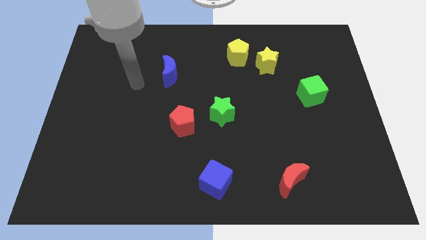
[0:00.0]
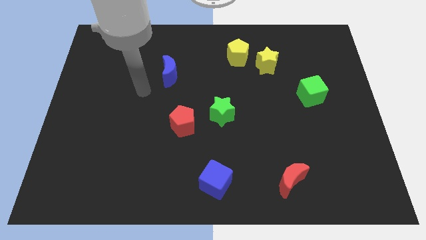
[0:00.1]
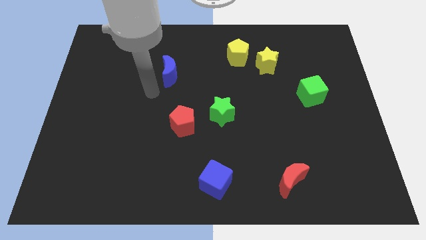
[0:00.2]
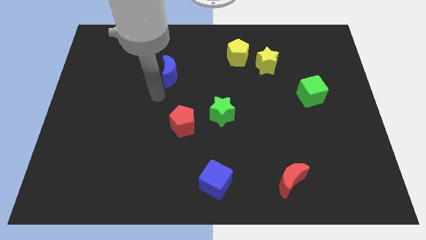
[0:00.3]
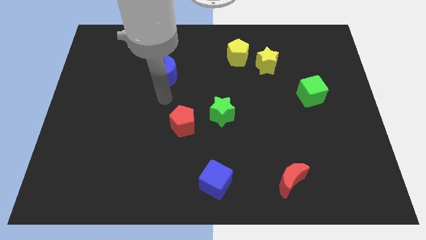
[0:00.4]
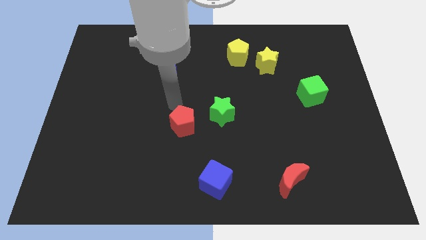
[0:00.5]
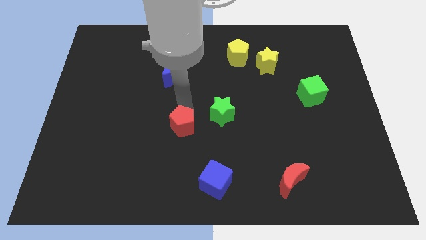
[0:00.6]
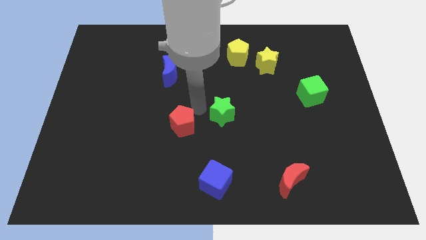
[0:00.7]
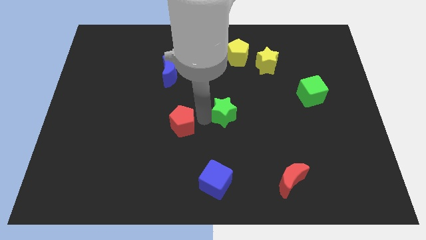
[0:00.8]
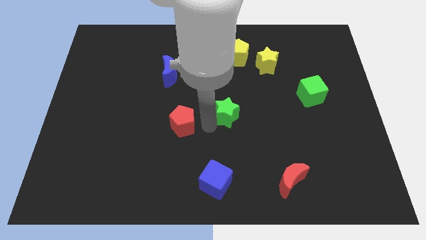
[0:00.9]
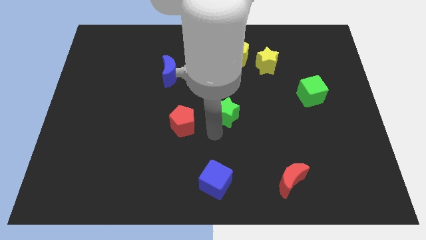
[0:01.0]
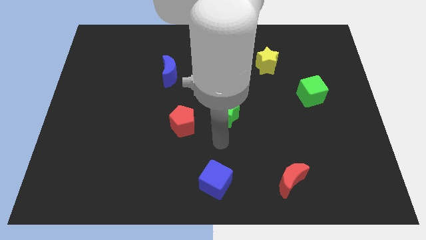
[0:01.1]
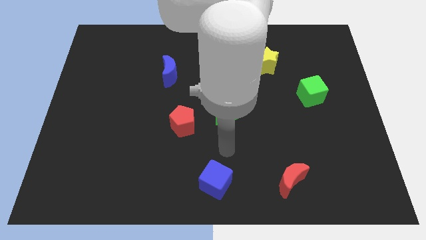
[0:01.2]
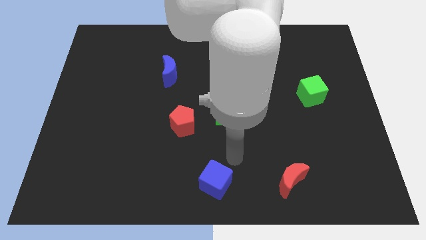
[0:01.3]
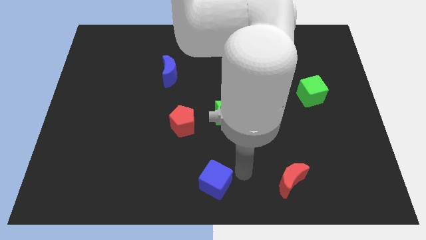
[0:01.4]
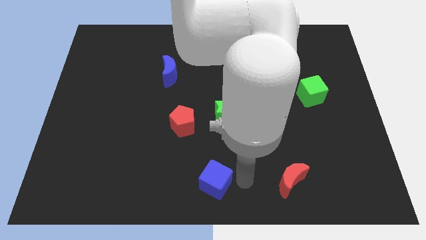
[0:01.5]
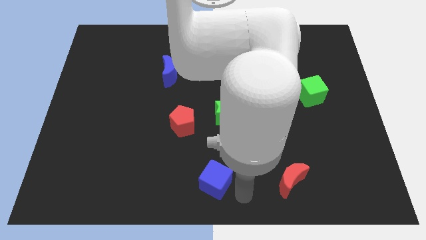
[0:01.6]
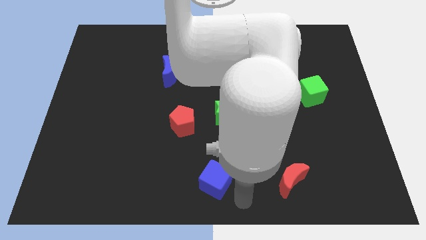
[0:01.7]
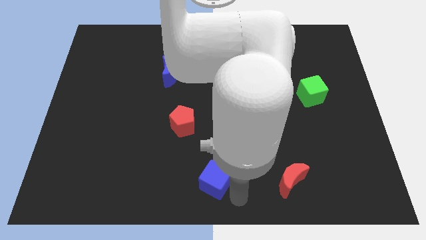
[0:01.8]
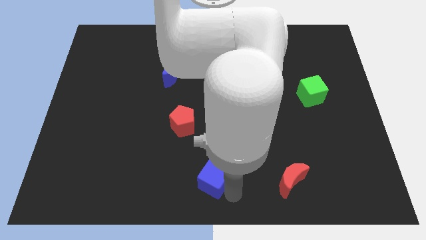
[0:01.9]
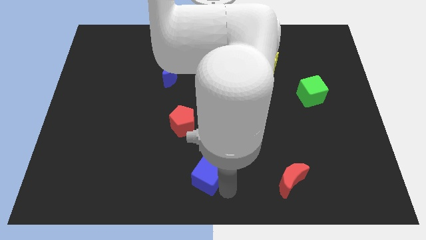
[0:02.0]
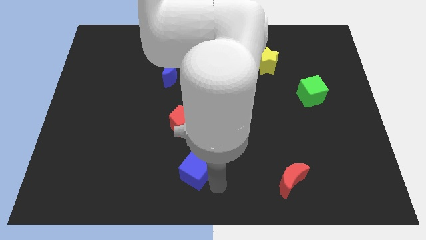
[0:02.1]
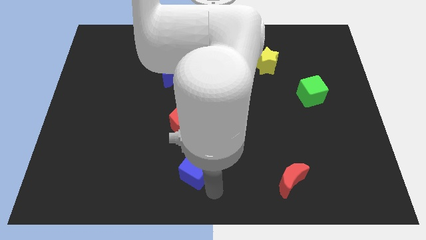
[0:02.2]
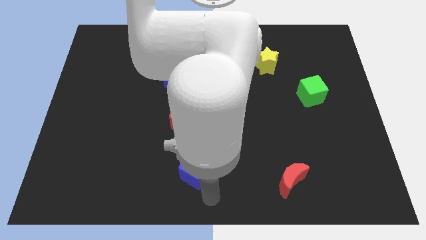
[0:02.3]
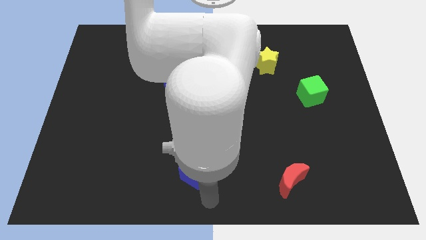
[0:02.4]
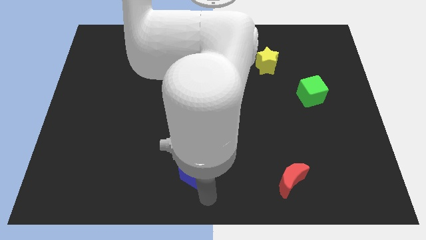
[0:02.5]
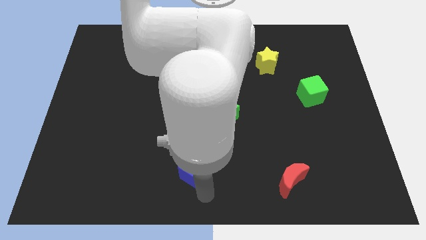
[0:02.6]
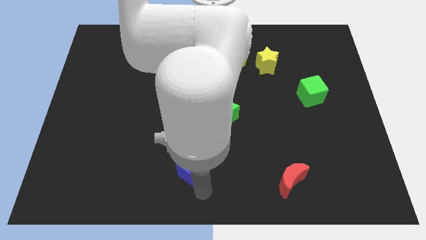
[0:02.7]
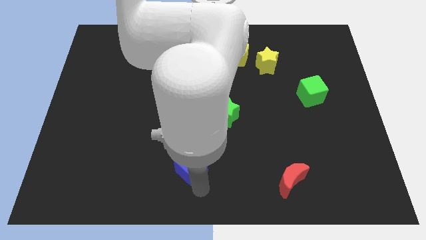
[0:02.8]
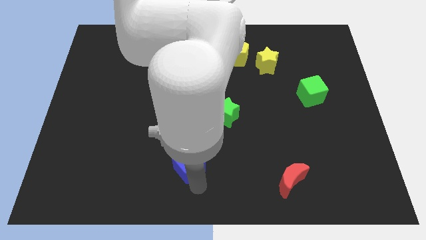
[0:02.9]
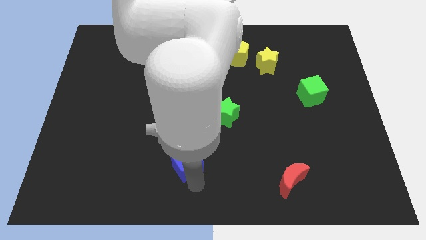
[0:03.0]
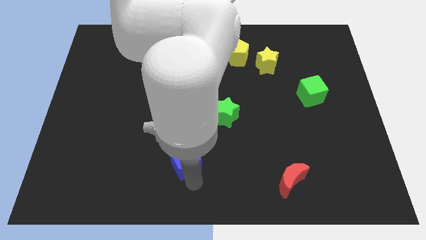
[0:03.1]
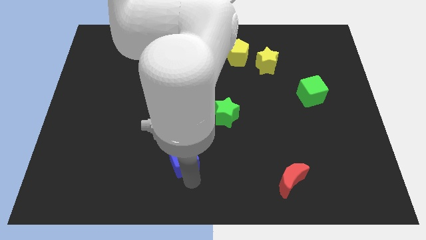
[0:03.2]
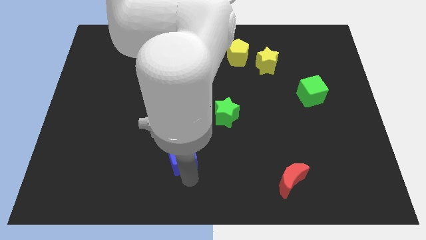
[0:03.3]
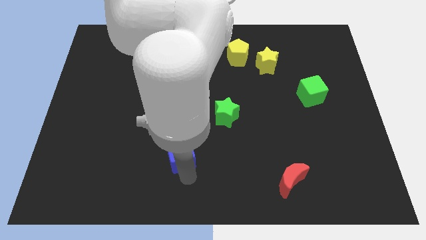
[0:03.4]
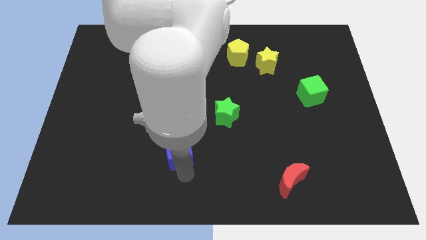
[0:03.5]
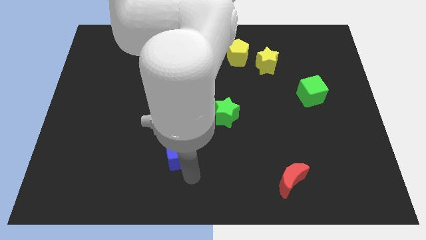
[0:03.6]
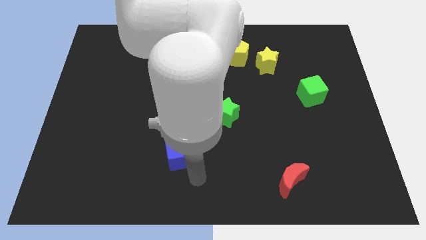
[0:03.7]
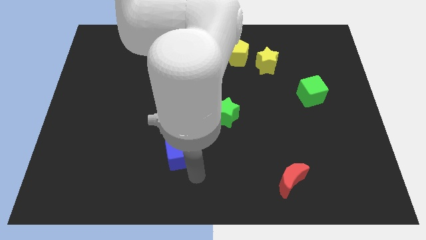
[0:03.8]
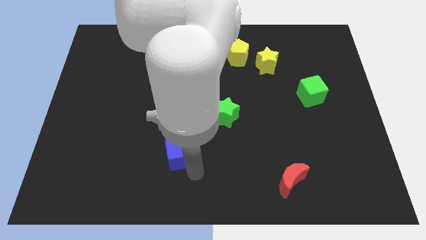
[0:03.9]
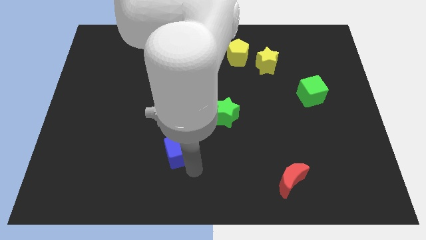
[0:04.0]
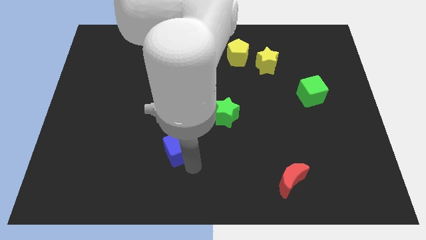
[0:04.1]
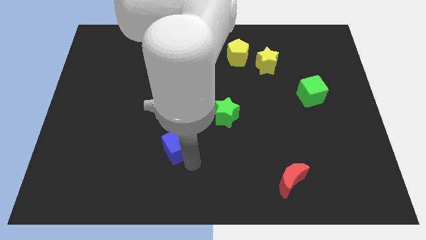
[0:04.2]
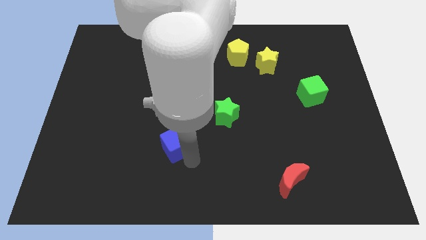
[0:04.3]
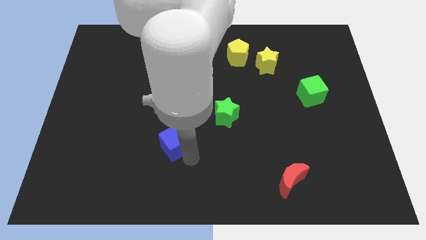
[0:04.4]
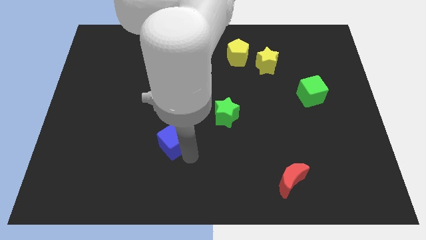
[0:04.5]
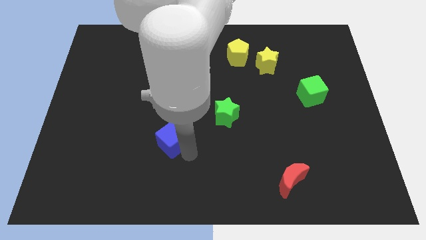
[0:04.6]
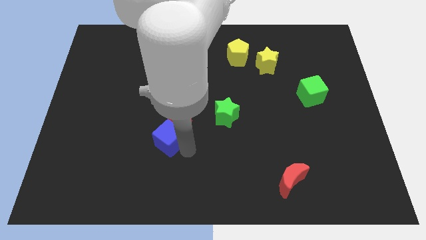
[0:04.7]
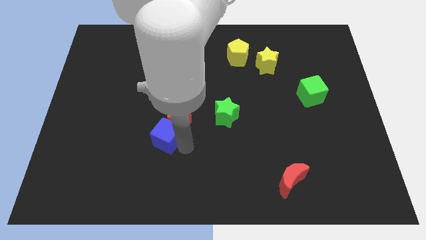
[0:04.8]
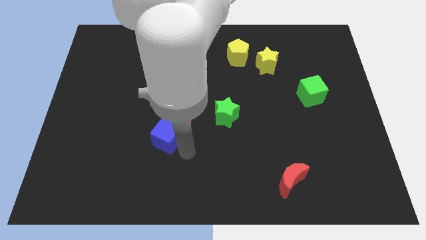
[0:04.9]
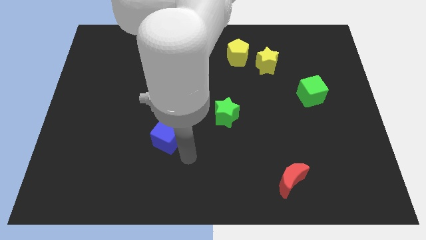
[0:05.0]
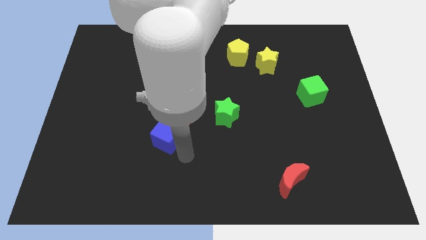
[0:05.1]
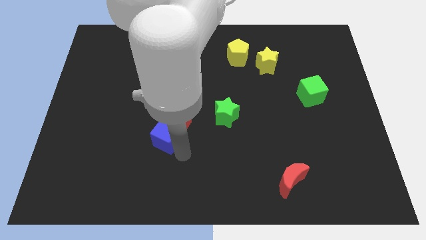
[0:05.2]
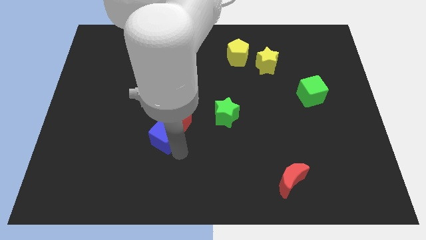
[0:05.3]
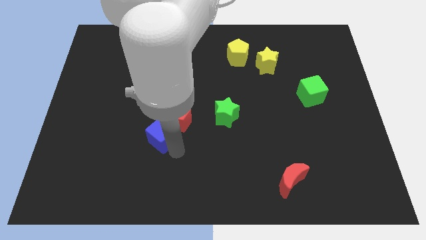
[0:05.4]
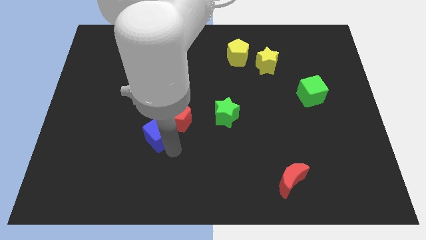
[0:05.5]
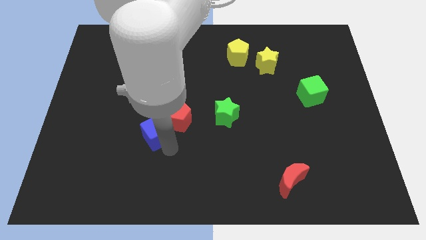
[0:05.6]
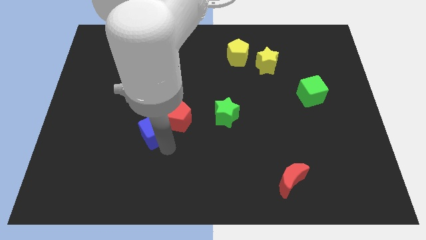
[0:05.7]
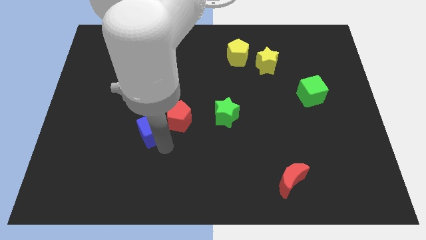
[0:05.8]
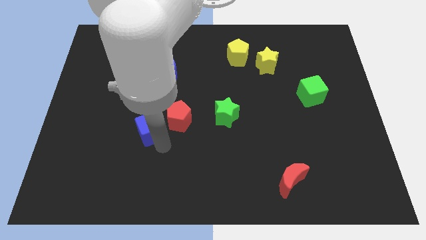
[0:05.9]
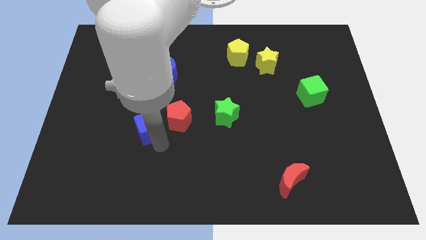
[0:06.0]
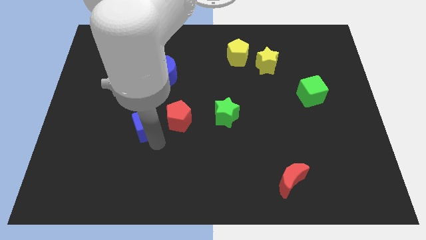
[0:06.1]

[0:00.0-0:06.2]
slide the blue cube diagonally upwards and left

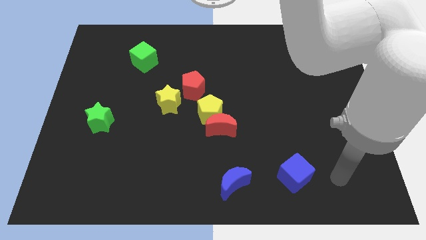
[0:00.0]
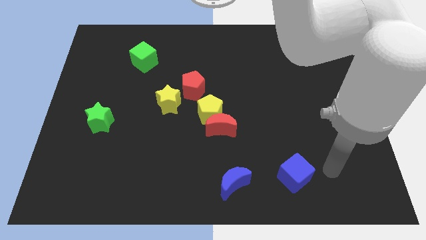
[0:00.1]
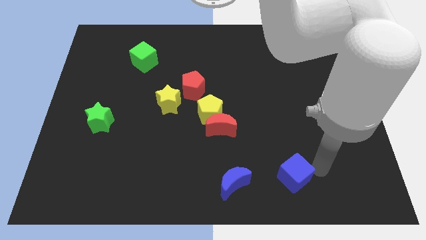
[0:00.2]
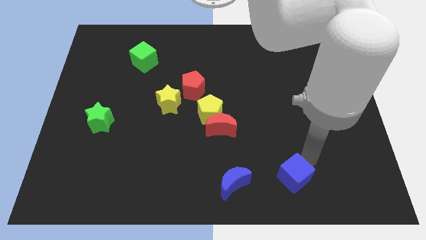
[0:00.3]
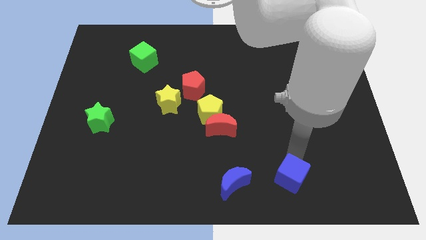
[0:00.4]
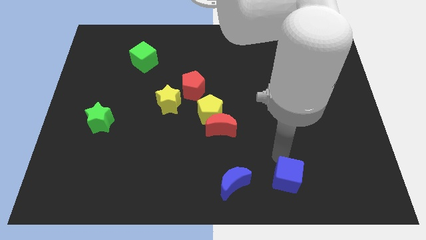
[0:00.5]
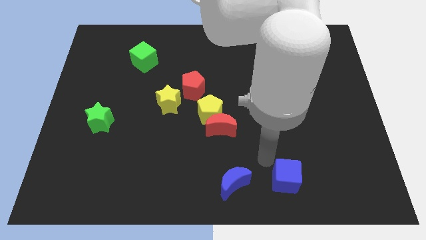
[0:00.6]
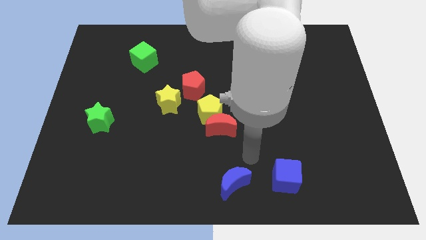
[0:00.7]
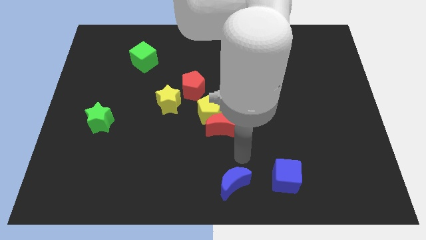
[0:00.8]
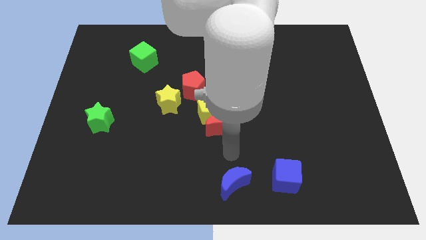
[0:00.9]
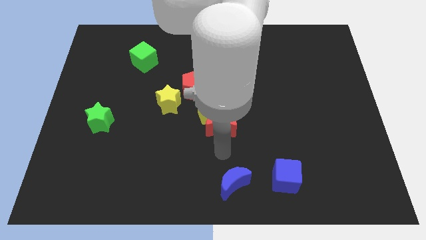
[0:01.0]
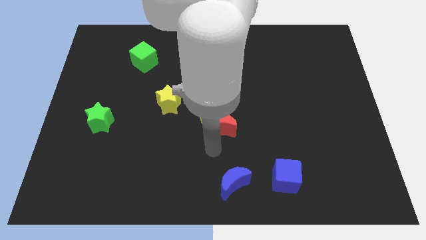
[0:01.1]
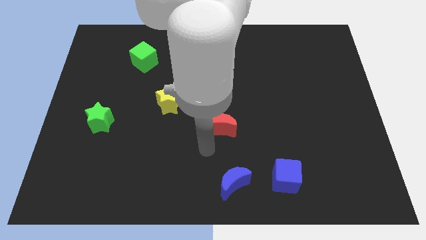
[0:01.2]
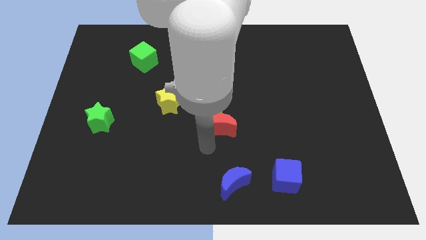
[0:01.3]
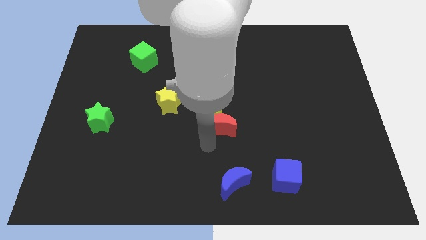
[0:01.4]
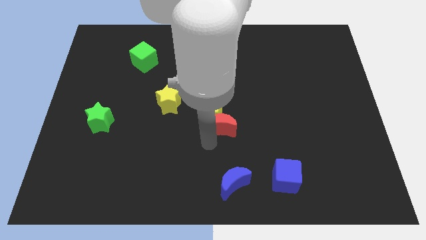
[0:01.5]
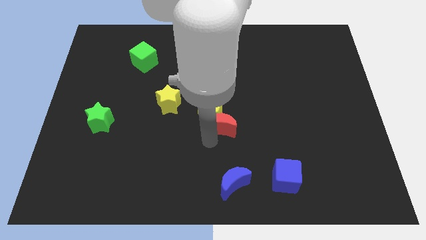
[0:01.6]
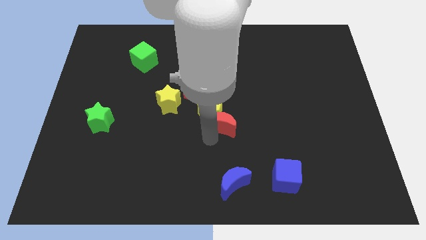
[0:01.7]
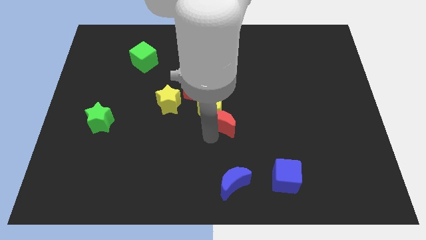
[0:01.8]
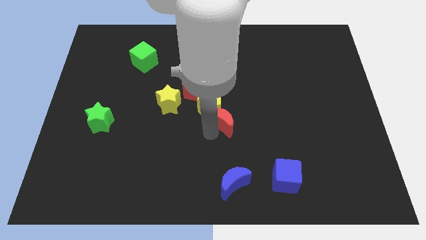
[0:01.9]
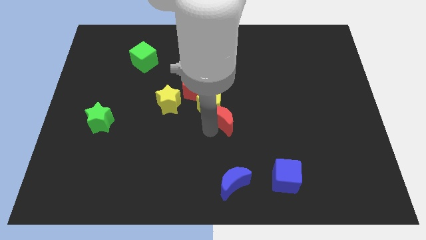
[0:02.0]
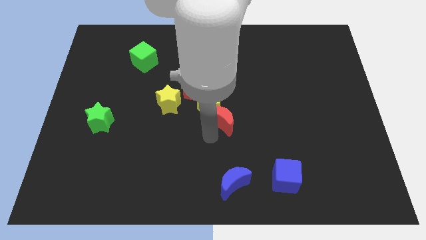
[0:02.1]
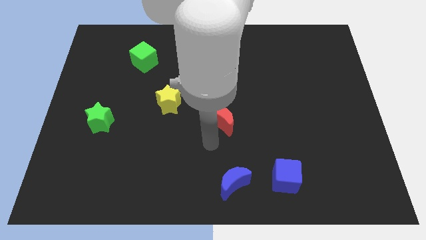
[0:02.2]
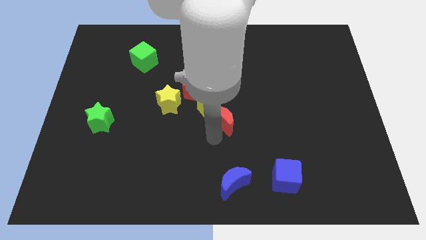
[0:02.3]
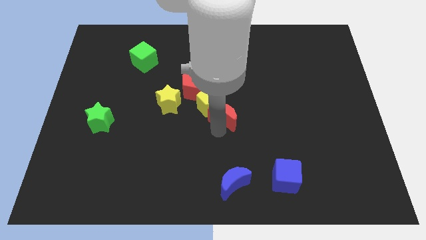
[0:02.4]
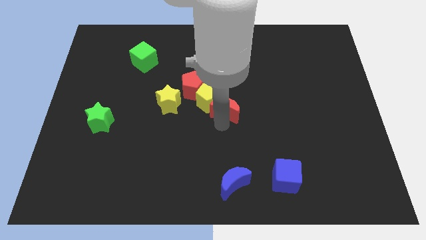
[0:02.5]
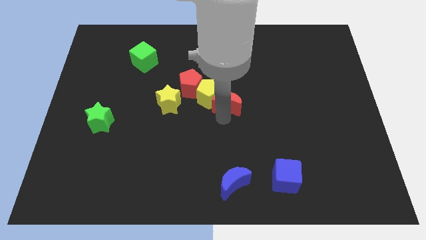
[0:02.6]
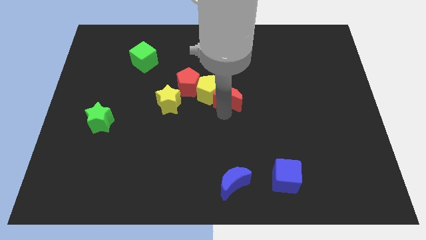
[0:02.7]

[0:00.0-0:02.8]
slide the red moon upwards a little bit
